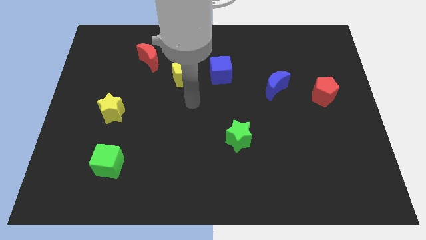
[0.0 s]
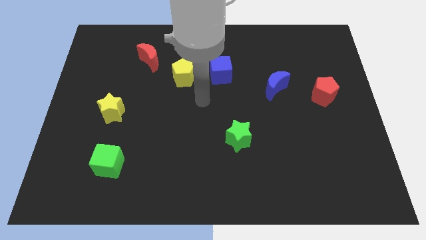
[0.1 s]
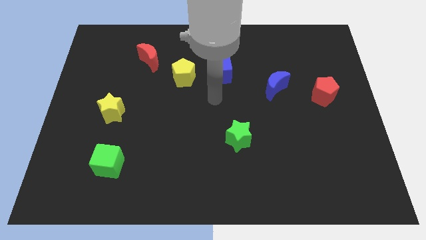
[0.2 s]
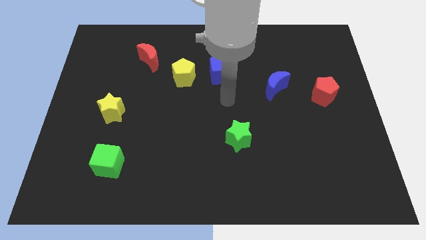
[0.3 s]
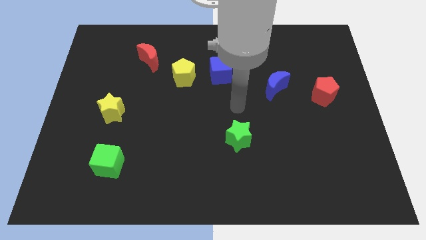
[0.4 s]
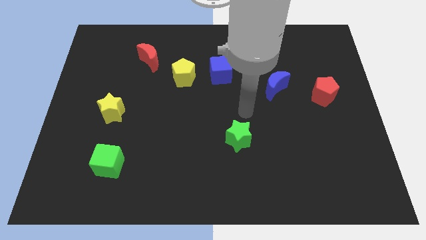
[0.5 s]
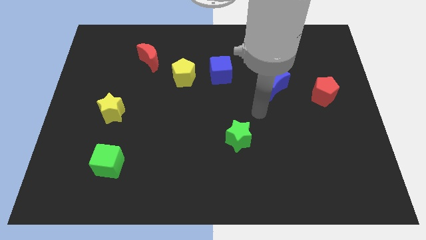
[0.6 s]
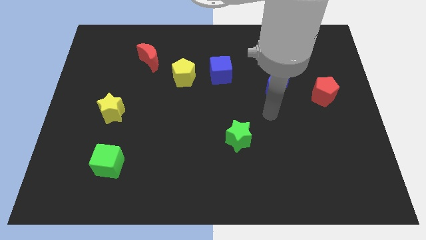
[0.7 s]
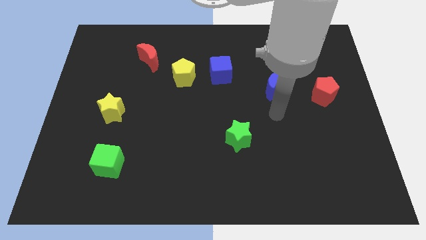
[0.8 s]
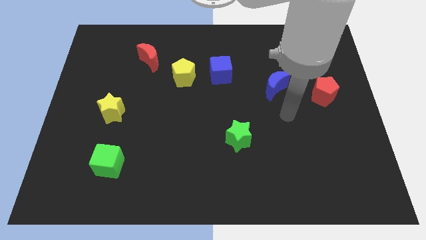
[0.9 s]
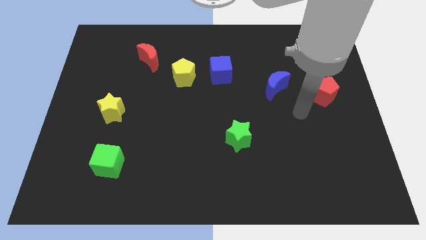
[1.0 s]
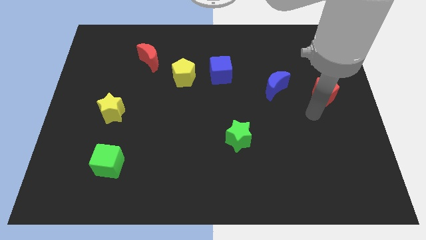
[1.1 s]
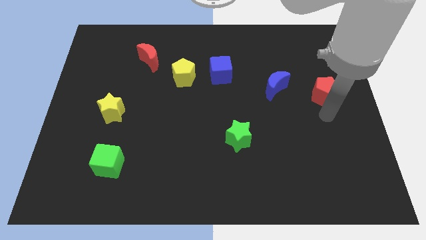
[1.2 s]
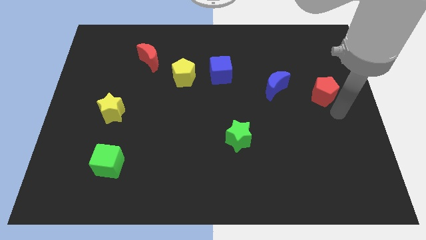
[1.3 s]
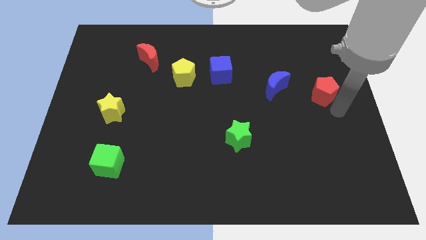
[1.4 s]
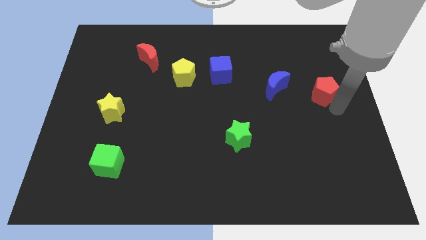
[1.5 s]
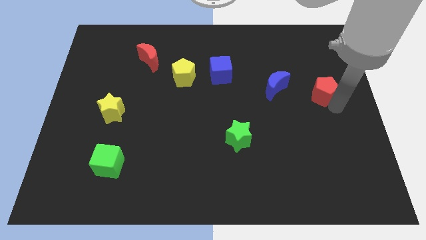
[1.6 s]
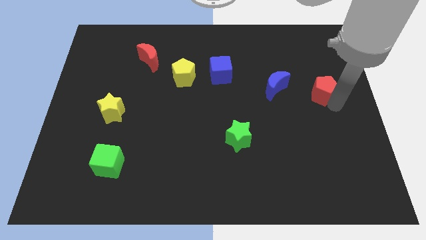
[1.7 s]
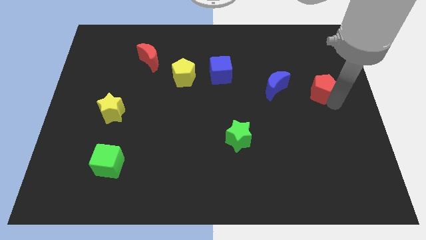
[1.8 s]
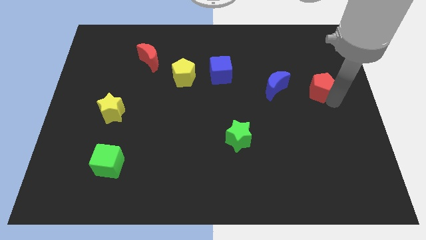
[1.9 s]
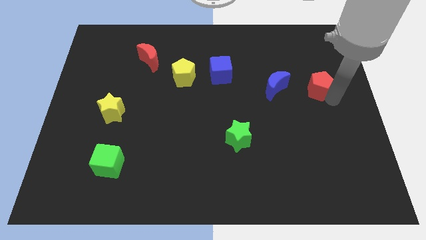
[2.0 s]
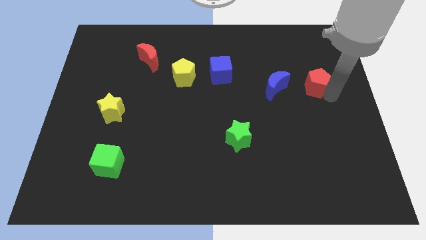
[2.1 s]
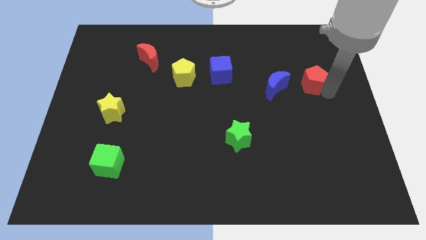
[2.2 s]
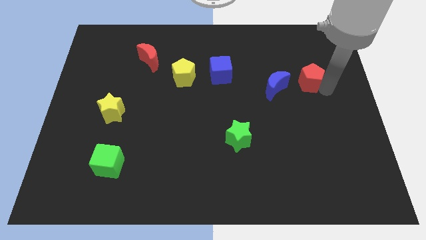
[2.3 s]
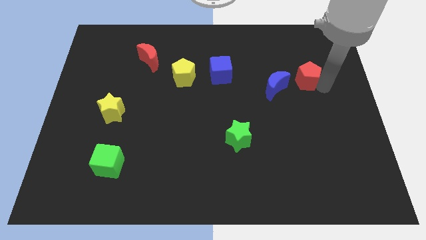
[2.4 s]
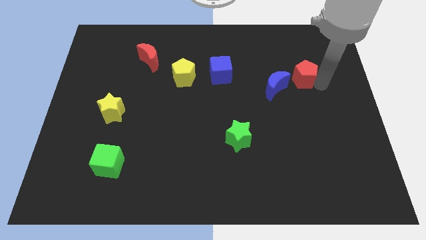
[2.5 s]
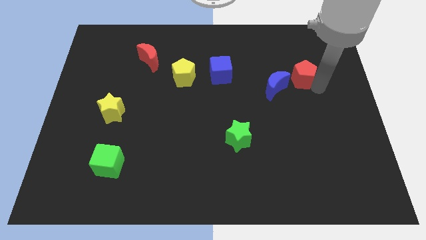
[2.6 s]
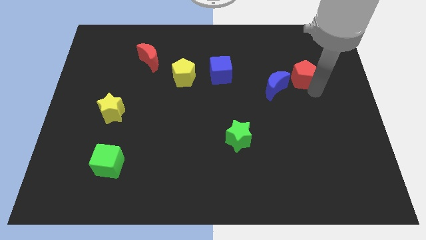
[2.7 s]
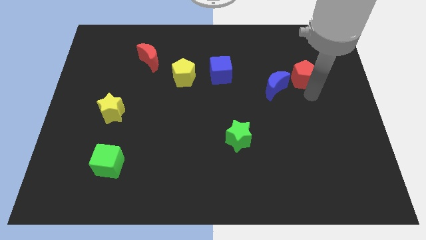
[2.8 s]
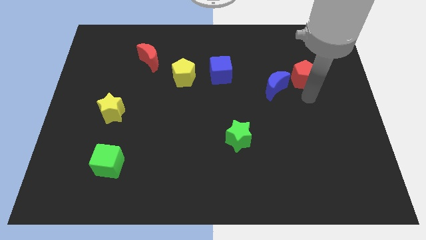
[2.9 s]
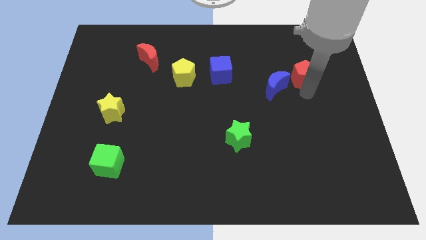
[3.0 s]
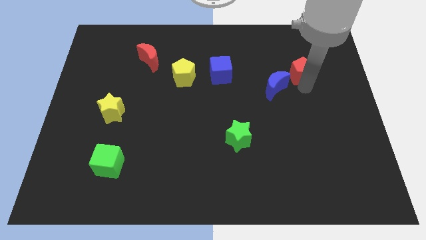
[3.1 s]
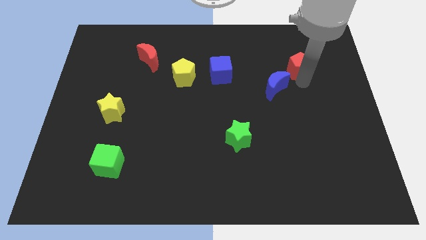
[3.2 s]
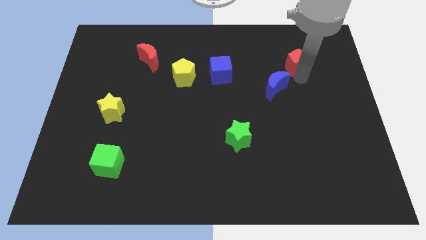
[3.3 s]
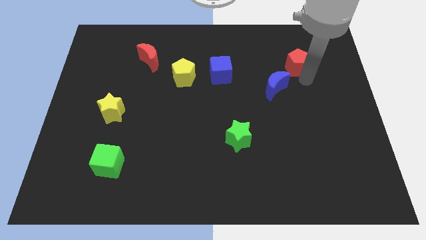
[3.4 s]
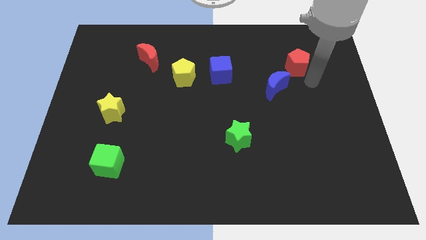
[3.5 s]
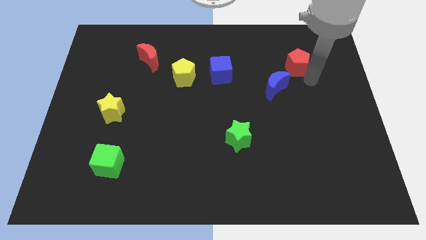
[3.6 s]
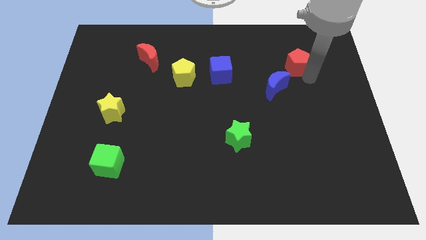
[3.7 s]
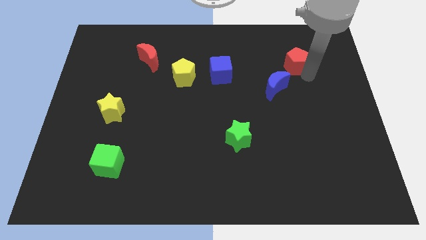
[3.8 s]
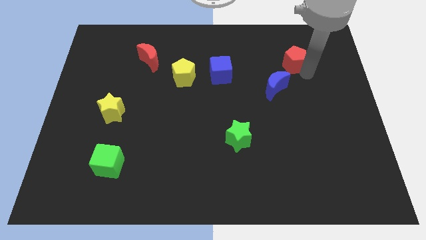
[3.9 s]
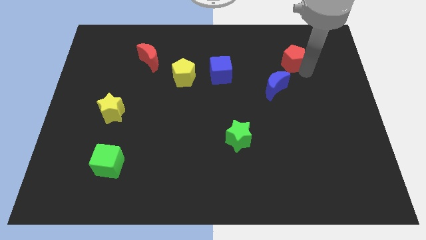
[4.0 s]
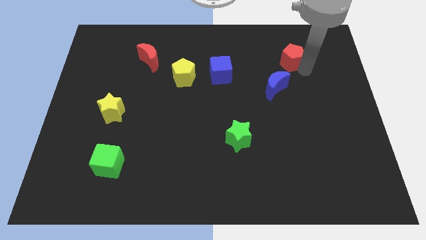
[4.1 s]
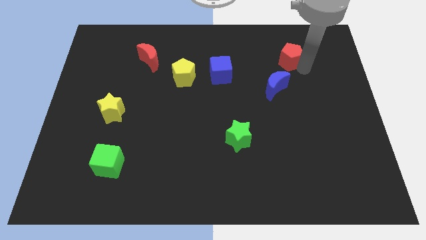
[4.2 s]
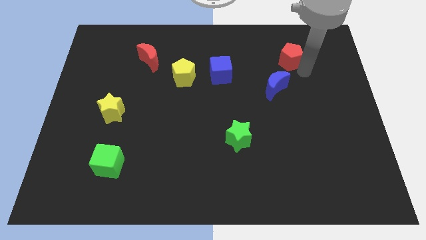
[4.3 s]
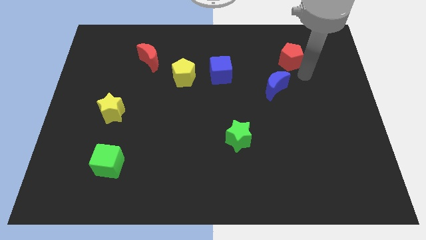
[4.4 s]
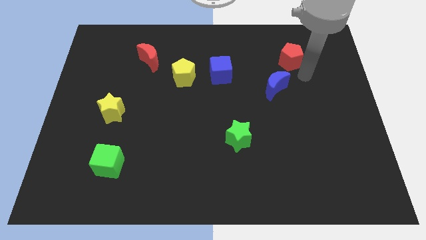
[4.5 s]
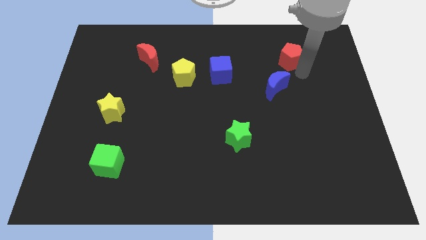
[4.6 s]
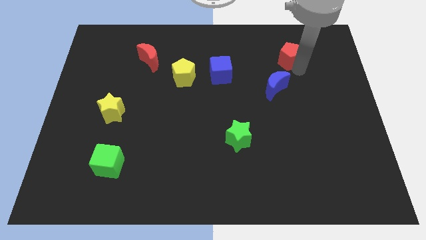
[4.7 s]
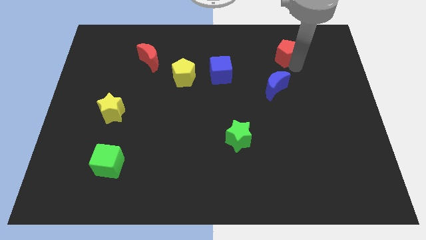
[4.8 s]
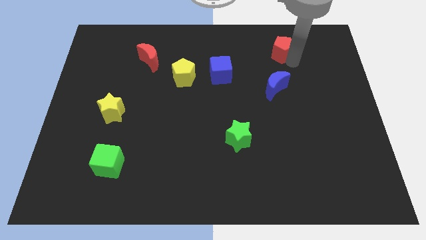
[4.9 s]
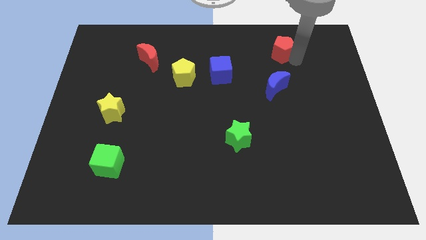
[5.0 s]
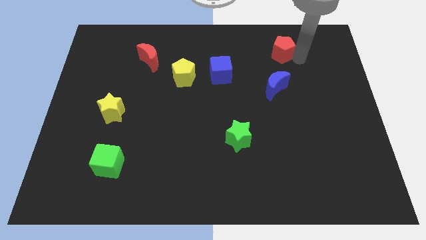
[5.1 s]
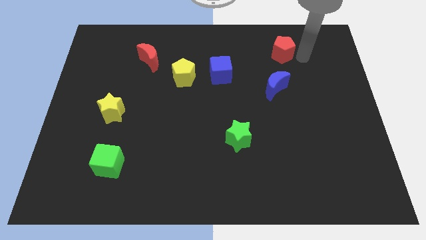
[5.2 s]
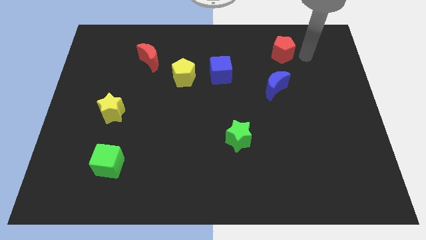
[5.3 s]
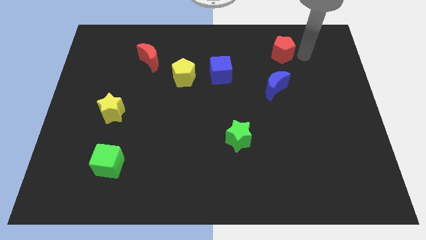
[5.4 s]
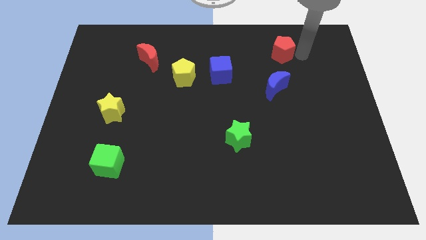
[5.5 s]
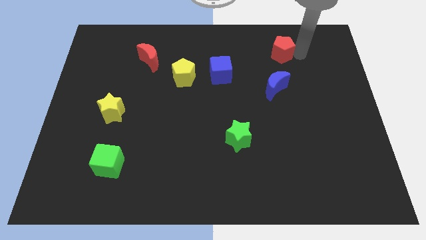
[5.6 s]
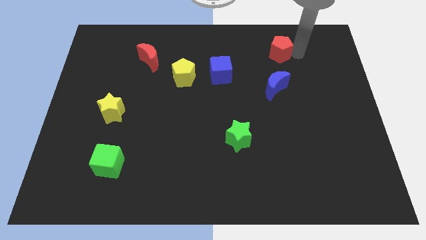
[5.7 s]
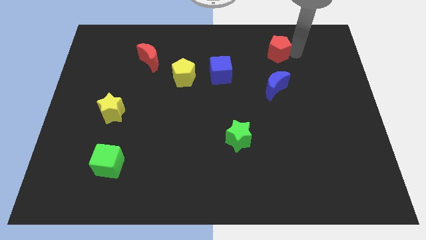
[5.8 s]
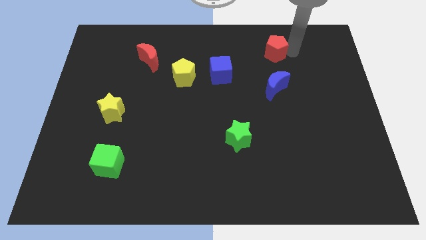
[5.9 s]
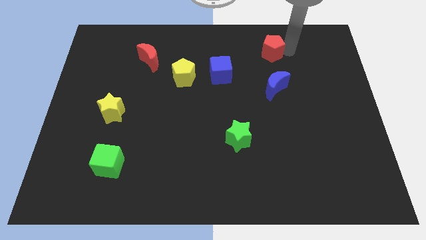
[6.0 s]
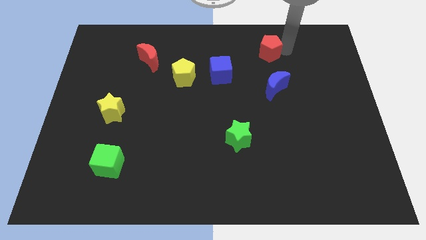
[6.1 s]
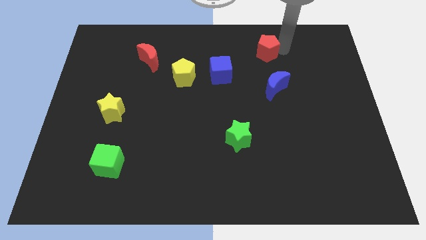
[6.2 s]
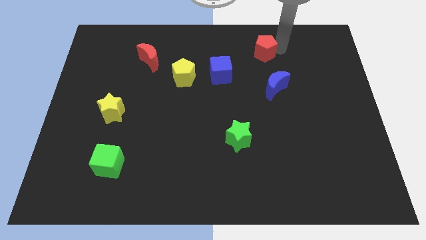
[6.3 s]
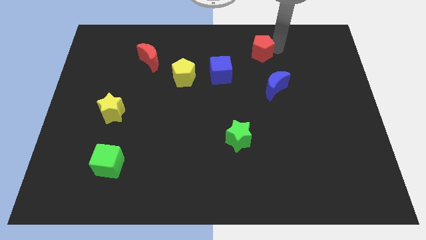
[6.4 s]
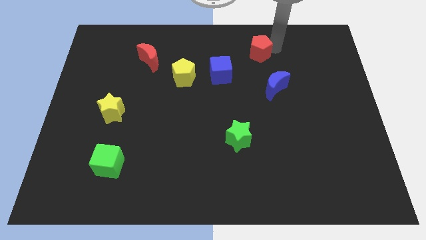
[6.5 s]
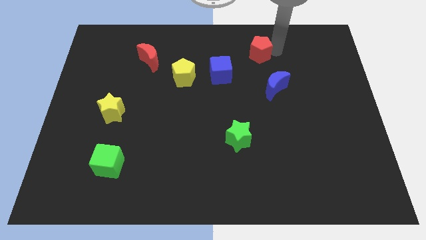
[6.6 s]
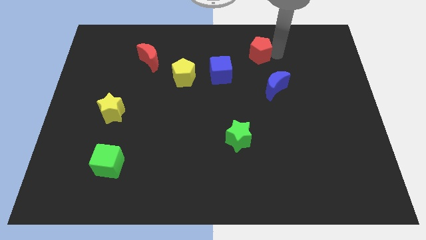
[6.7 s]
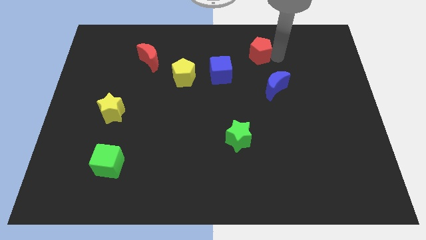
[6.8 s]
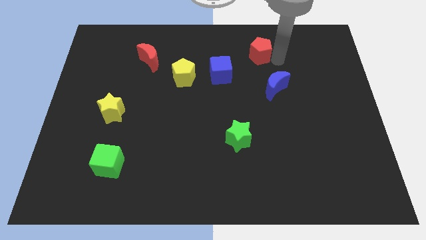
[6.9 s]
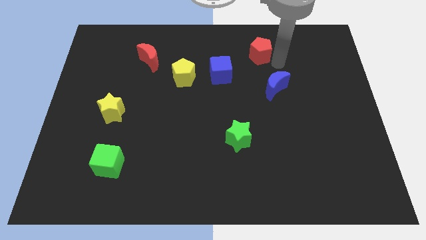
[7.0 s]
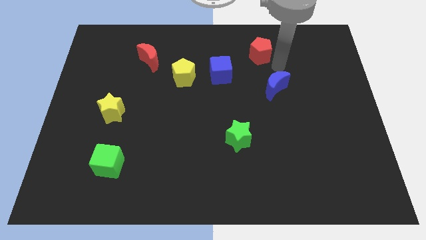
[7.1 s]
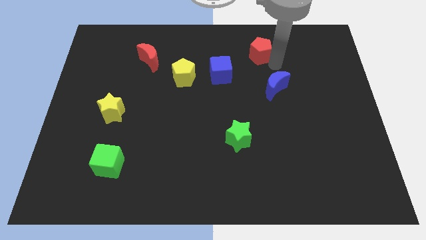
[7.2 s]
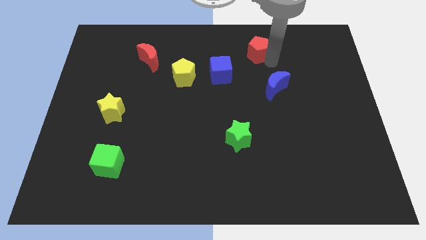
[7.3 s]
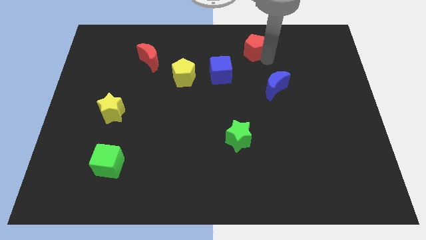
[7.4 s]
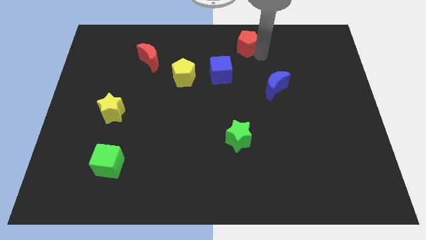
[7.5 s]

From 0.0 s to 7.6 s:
push the red pentagon to the top side
